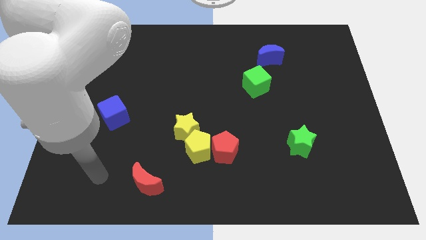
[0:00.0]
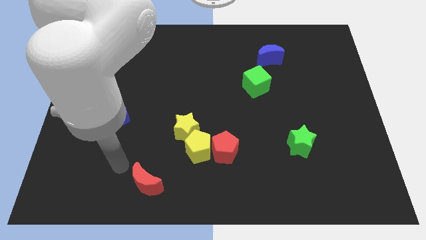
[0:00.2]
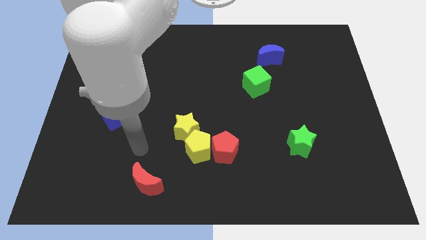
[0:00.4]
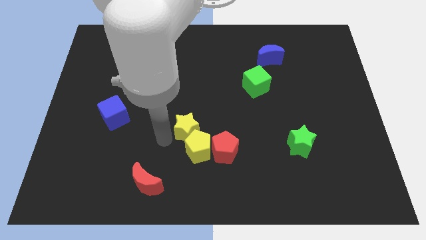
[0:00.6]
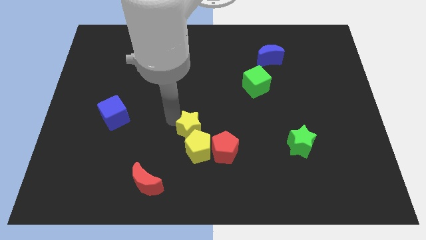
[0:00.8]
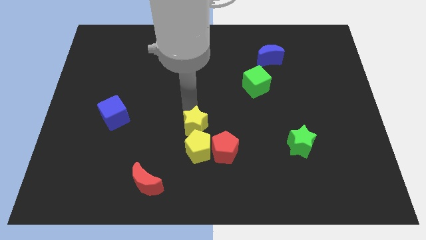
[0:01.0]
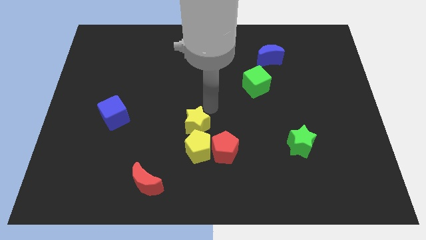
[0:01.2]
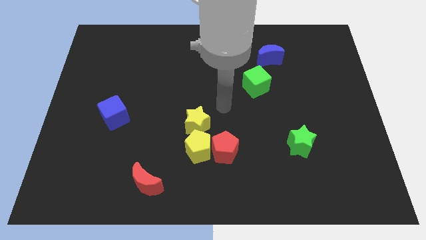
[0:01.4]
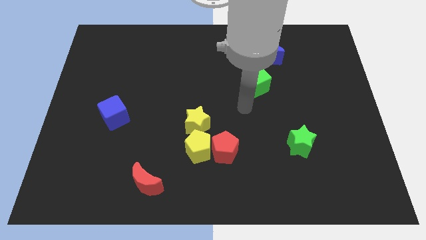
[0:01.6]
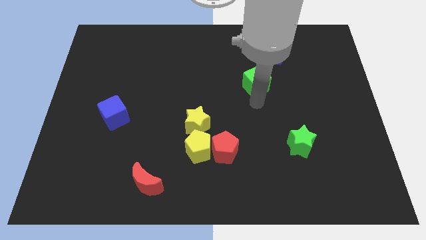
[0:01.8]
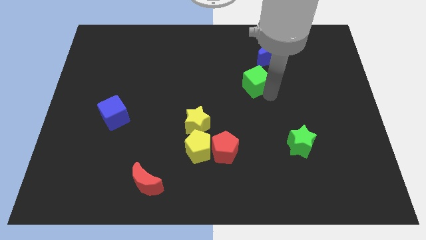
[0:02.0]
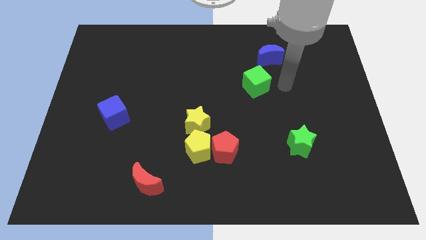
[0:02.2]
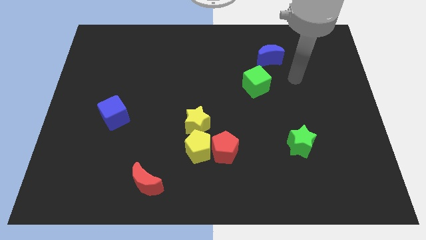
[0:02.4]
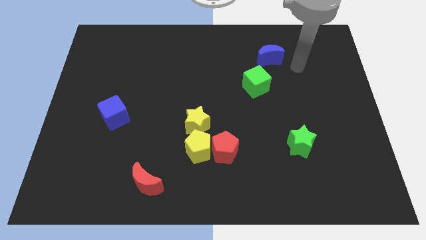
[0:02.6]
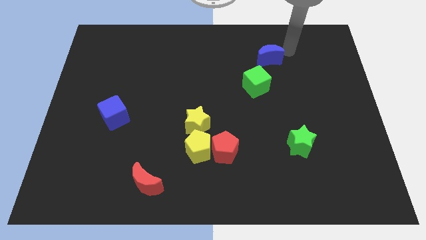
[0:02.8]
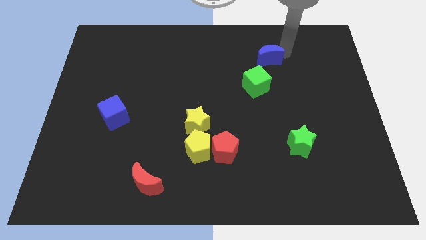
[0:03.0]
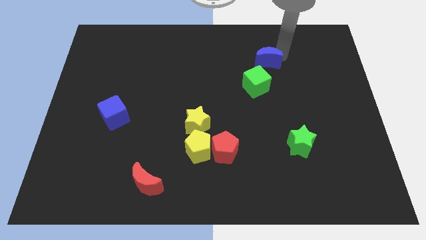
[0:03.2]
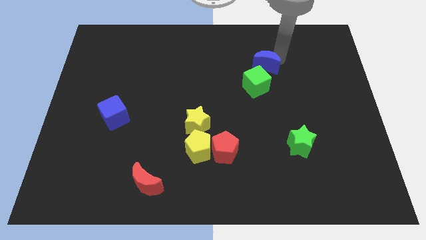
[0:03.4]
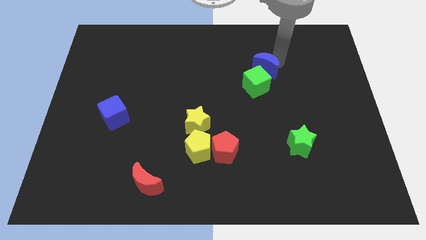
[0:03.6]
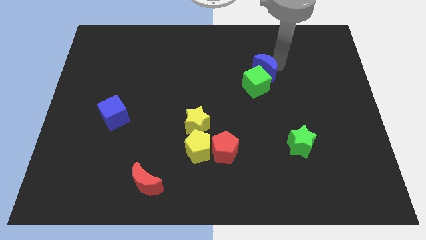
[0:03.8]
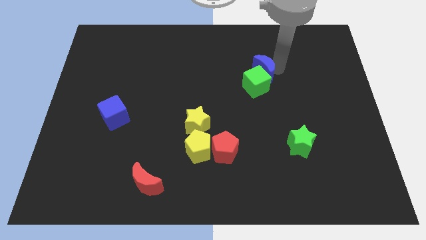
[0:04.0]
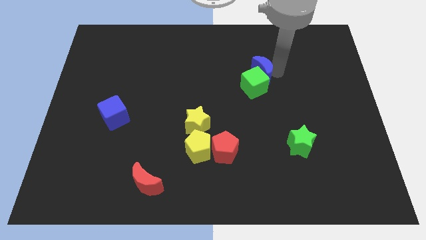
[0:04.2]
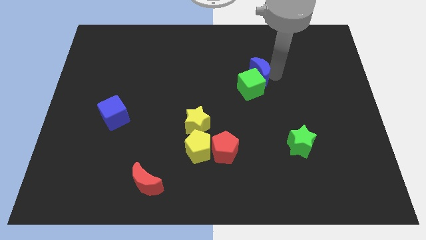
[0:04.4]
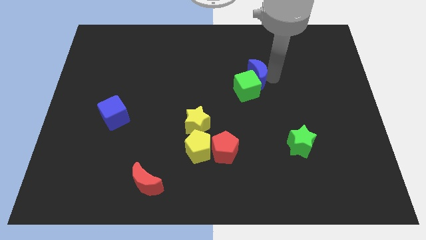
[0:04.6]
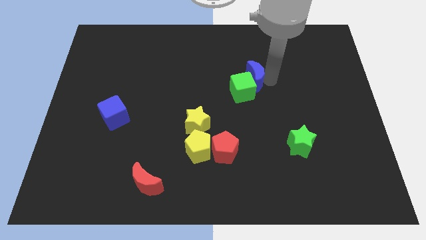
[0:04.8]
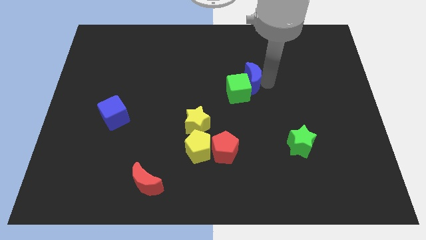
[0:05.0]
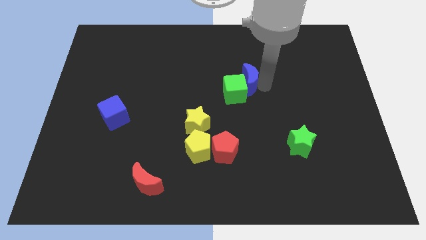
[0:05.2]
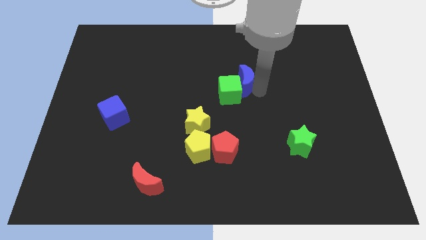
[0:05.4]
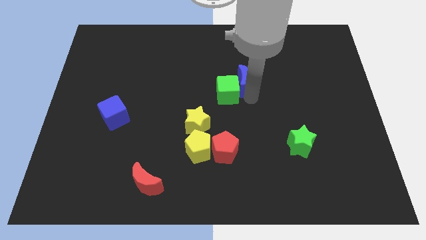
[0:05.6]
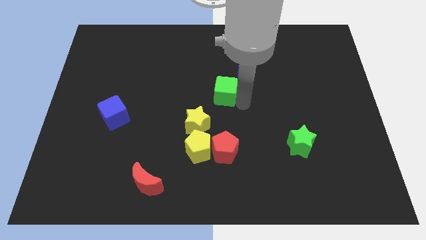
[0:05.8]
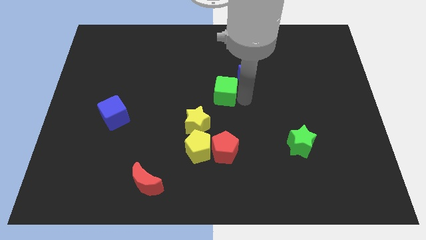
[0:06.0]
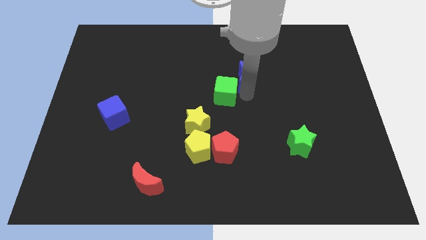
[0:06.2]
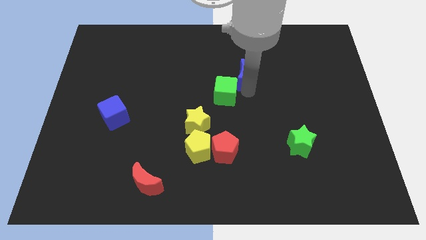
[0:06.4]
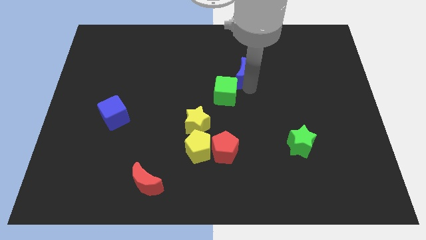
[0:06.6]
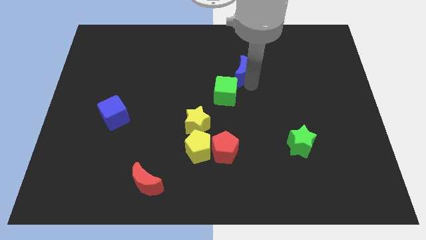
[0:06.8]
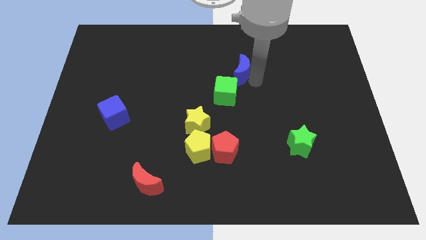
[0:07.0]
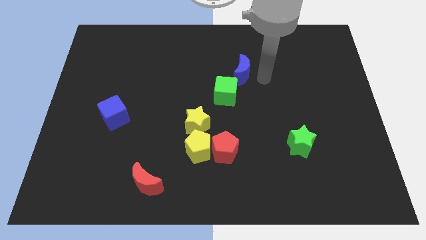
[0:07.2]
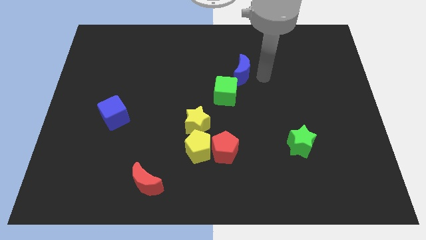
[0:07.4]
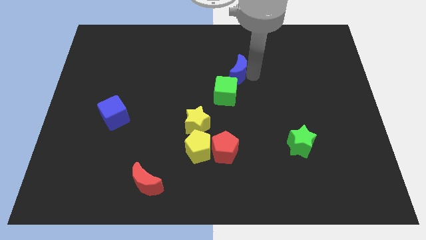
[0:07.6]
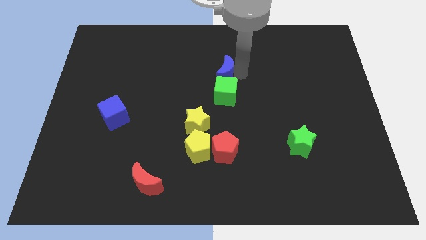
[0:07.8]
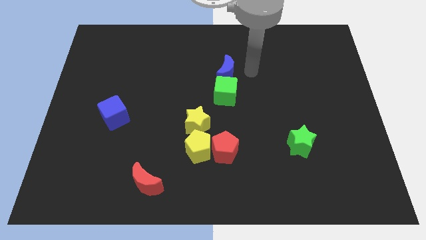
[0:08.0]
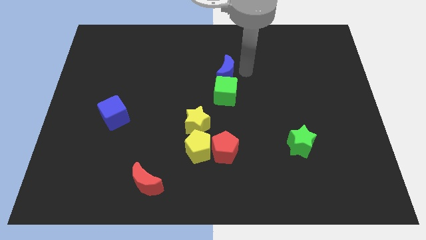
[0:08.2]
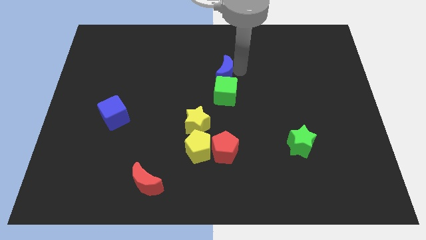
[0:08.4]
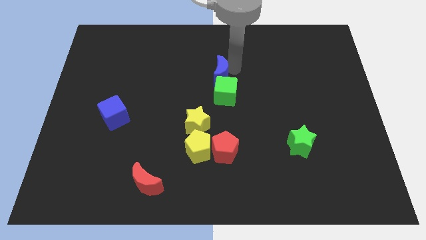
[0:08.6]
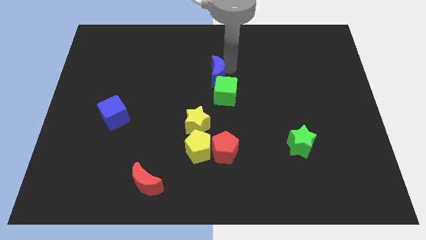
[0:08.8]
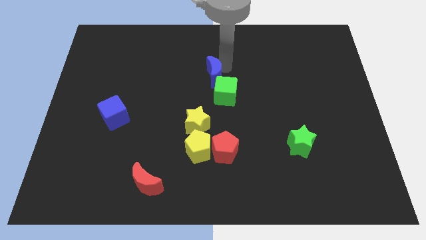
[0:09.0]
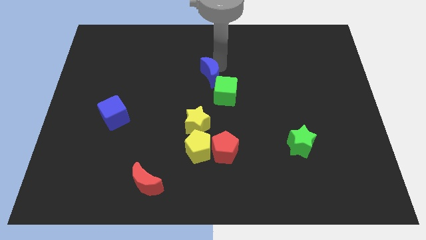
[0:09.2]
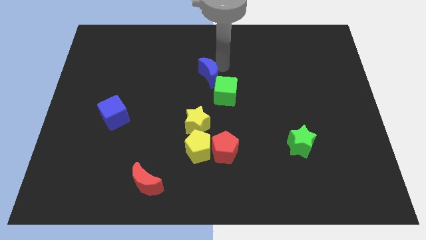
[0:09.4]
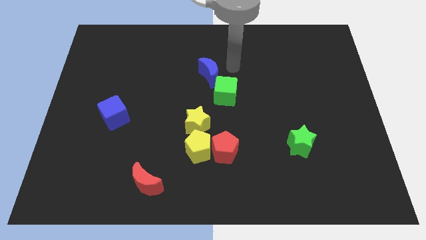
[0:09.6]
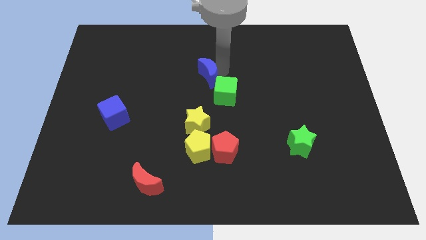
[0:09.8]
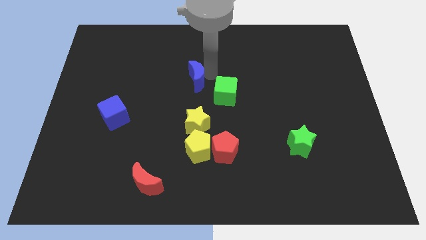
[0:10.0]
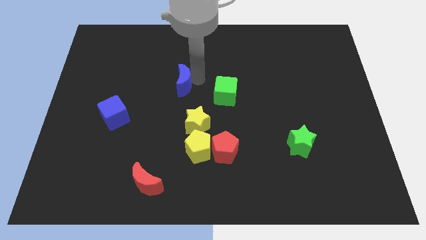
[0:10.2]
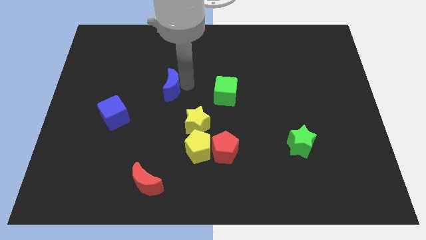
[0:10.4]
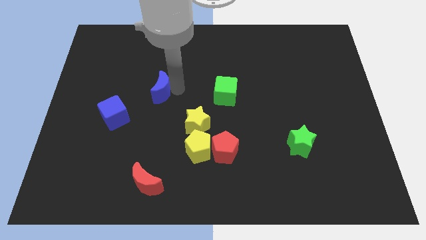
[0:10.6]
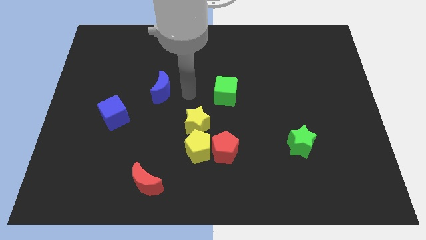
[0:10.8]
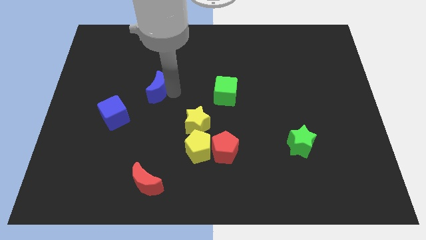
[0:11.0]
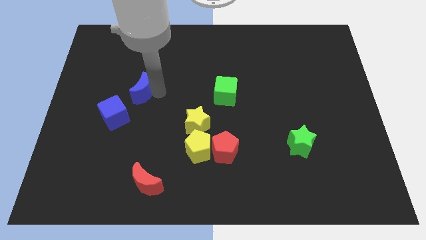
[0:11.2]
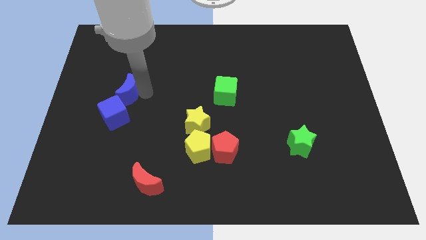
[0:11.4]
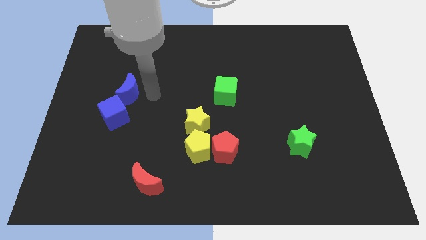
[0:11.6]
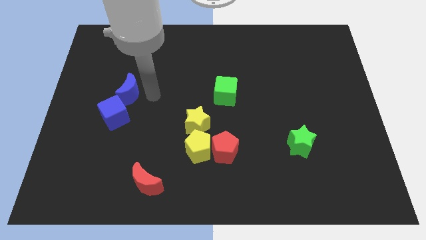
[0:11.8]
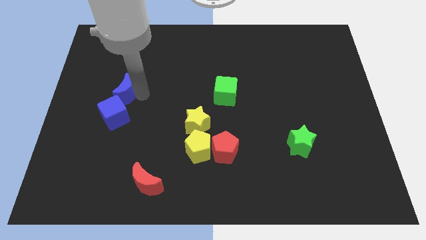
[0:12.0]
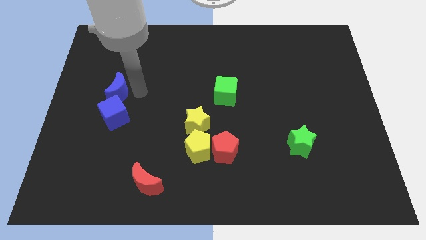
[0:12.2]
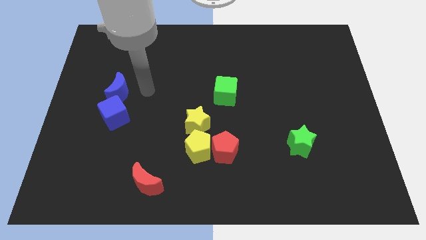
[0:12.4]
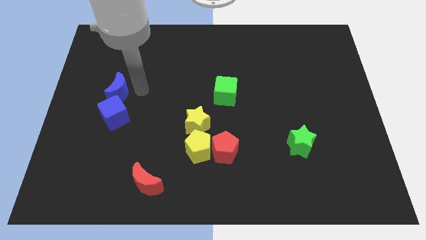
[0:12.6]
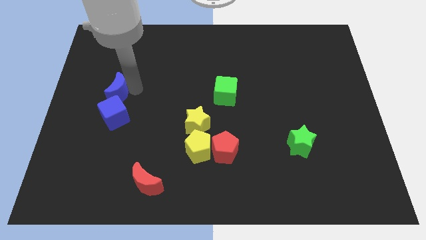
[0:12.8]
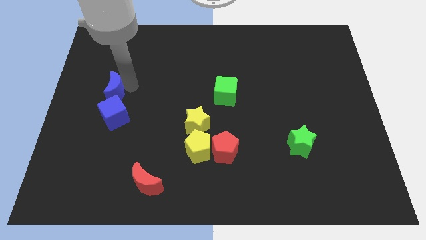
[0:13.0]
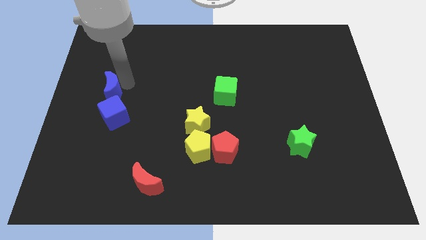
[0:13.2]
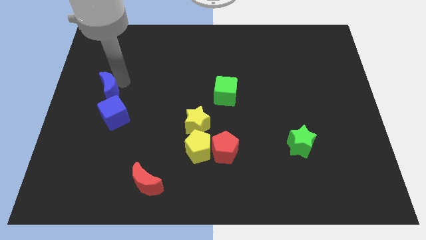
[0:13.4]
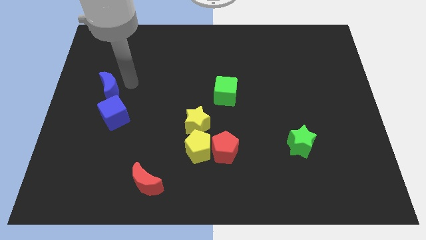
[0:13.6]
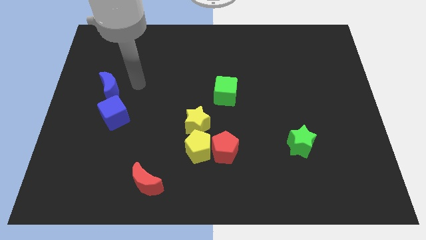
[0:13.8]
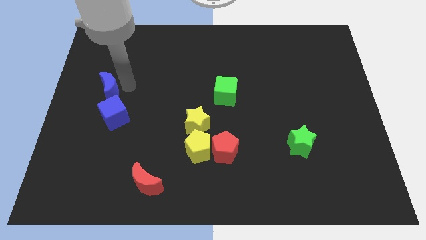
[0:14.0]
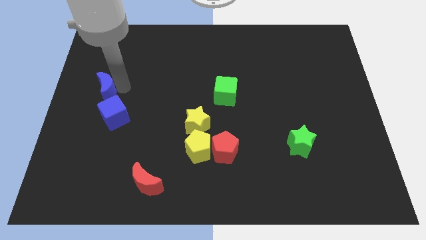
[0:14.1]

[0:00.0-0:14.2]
put the blue moon to the left side
